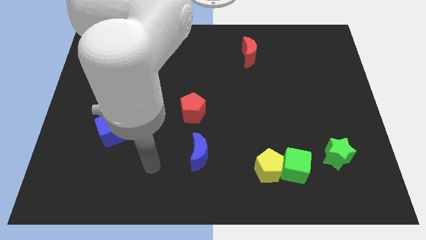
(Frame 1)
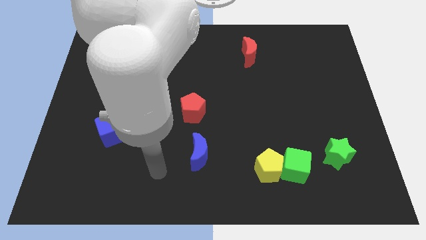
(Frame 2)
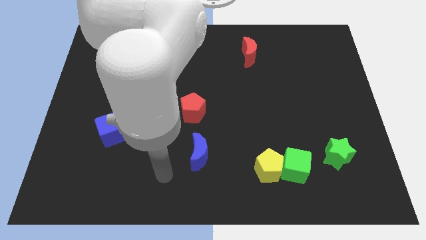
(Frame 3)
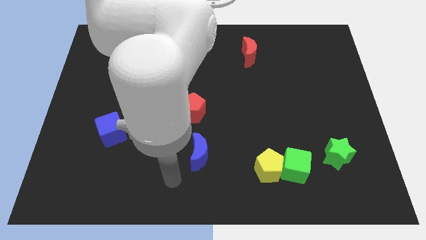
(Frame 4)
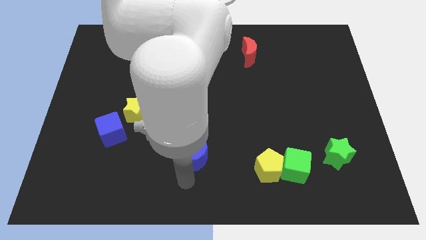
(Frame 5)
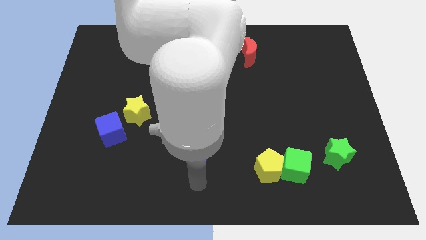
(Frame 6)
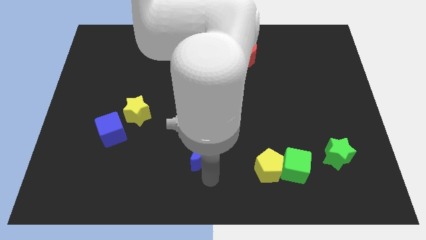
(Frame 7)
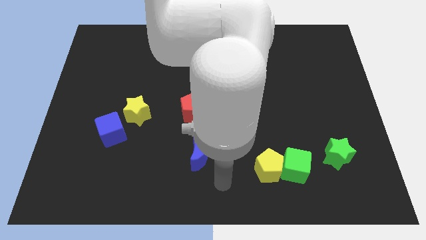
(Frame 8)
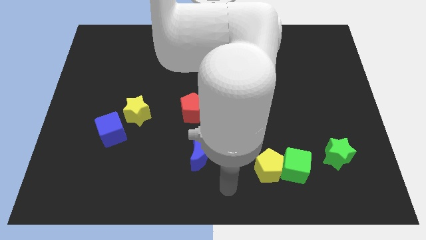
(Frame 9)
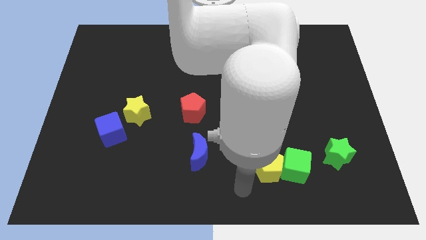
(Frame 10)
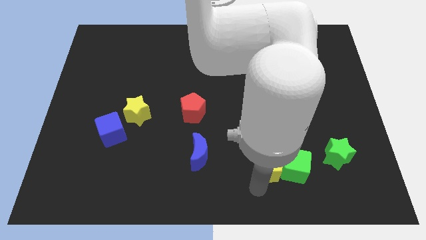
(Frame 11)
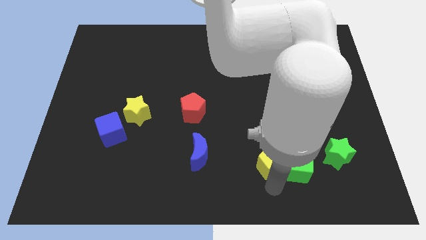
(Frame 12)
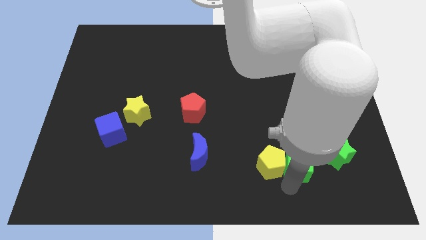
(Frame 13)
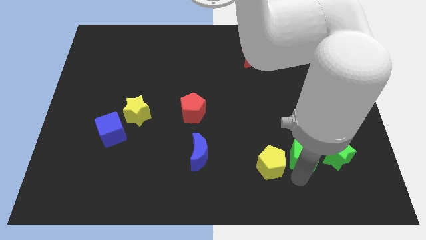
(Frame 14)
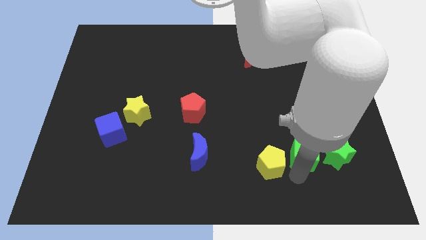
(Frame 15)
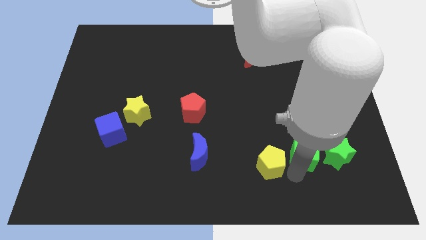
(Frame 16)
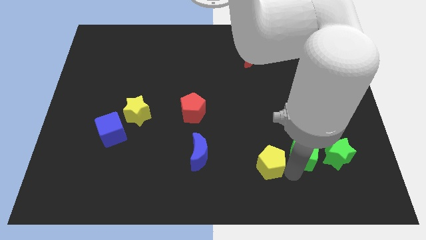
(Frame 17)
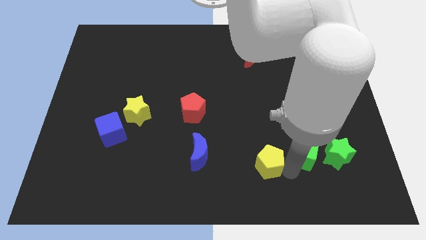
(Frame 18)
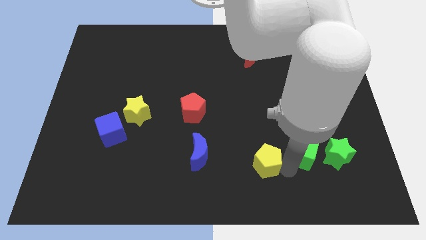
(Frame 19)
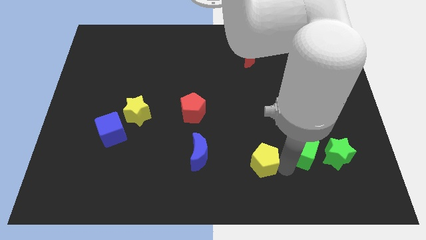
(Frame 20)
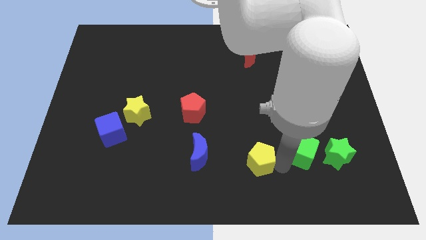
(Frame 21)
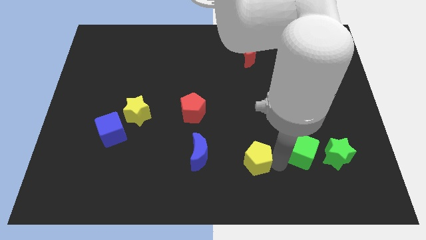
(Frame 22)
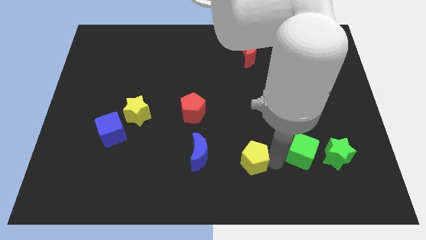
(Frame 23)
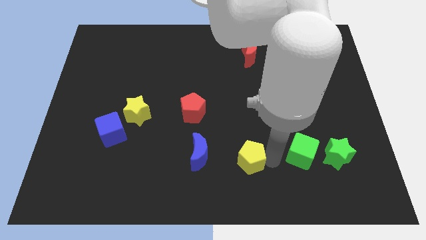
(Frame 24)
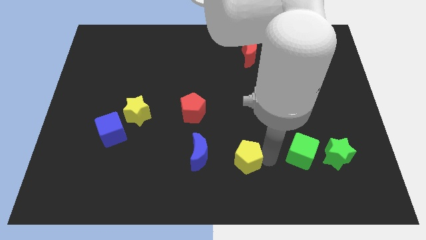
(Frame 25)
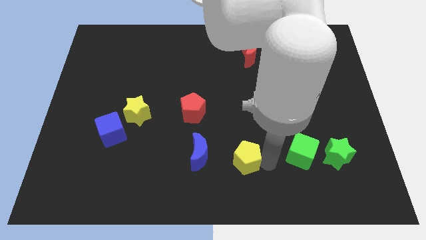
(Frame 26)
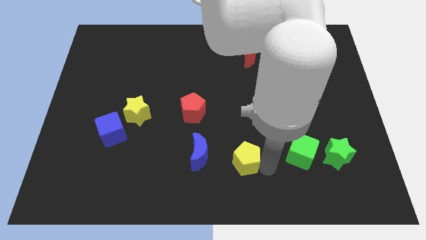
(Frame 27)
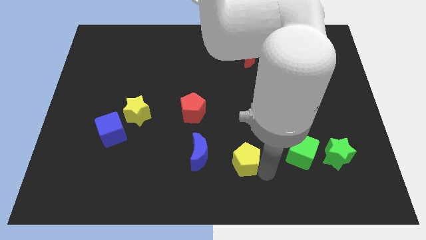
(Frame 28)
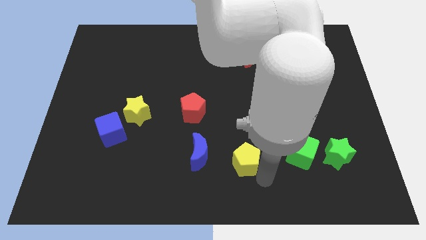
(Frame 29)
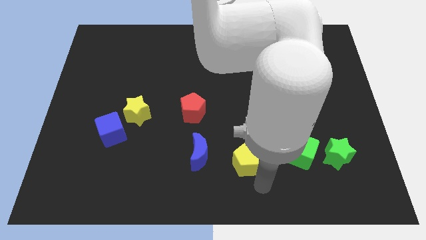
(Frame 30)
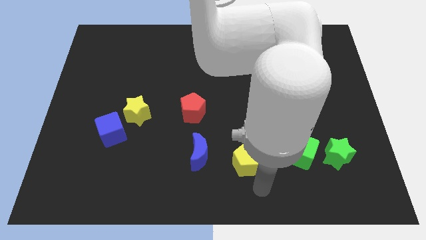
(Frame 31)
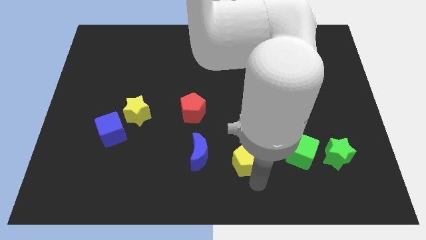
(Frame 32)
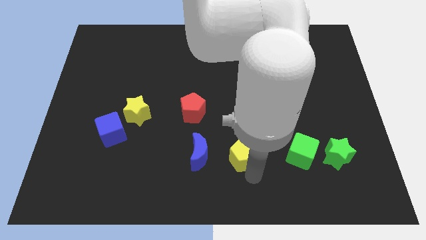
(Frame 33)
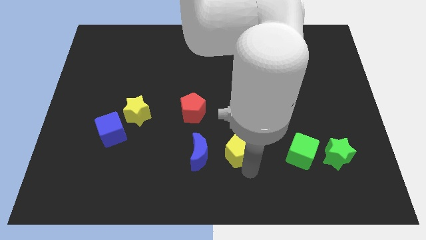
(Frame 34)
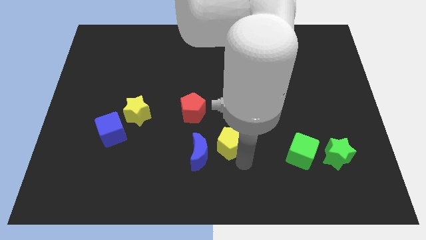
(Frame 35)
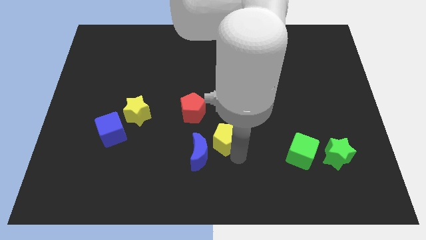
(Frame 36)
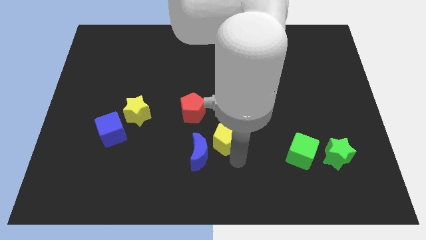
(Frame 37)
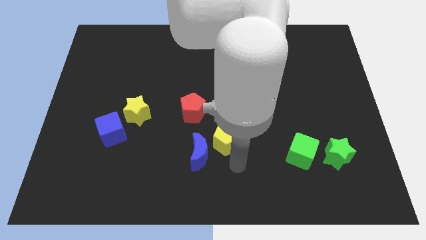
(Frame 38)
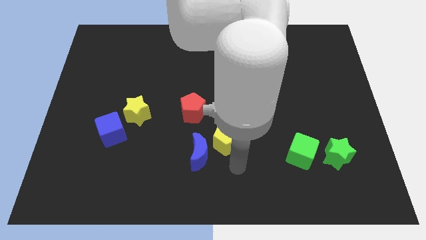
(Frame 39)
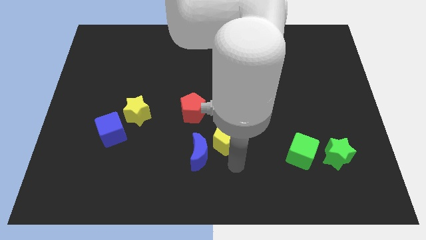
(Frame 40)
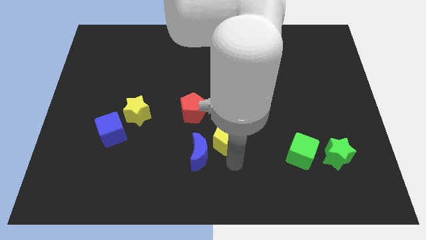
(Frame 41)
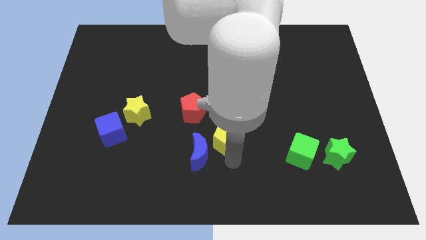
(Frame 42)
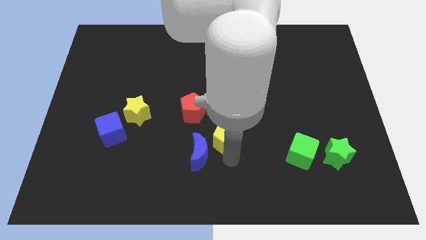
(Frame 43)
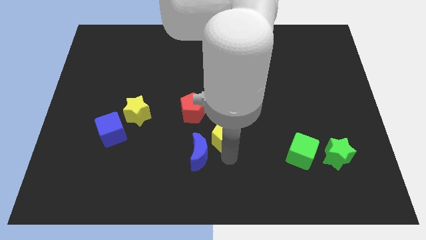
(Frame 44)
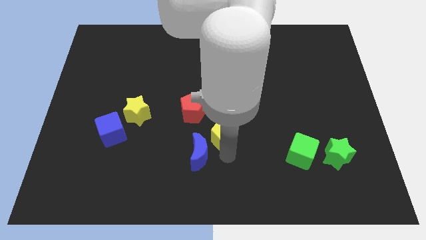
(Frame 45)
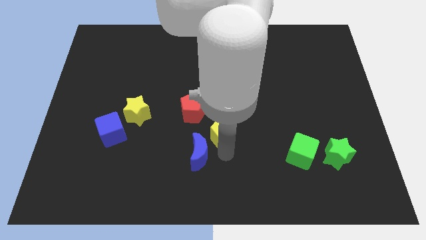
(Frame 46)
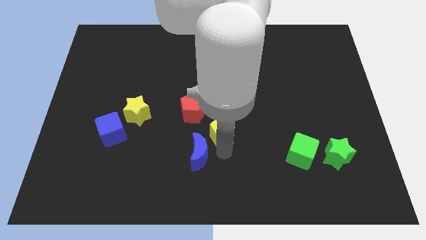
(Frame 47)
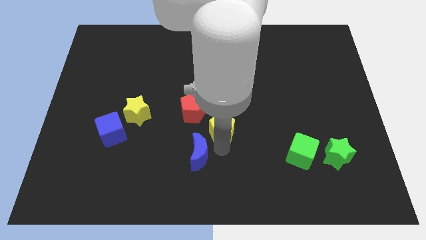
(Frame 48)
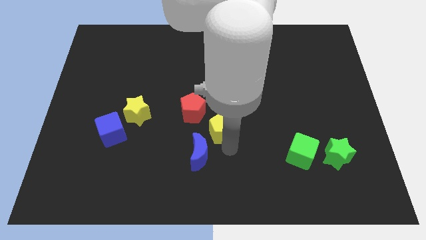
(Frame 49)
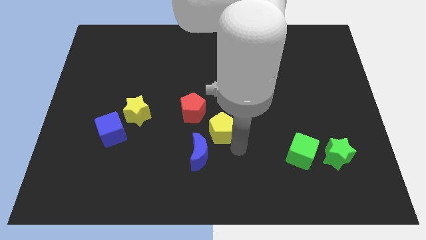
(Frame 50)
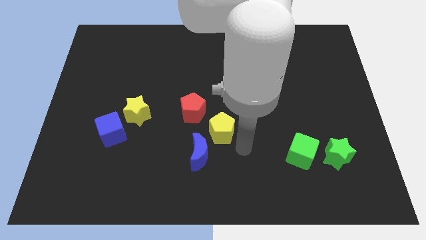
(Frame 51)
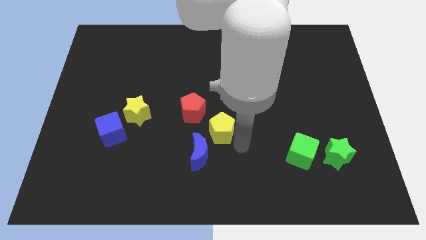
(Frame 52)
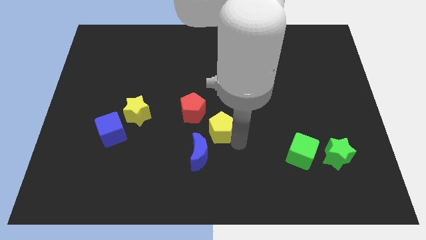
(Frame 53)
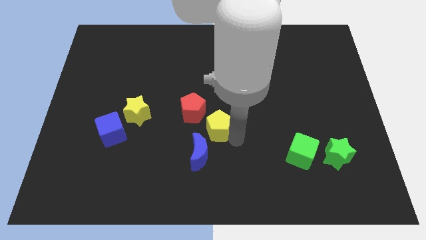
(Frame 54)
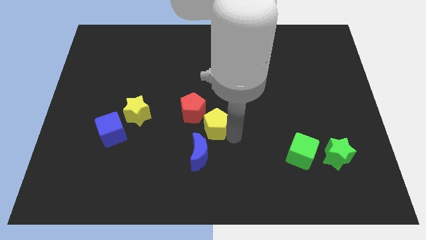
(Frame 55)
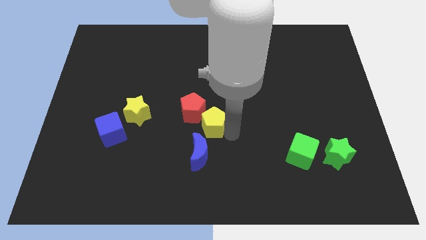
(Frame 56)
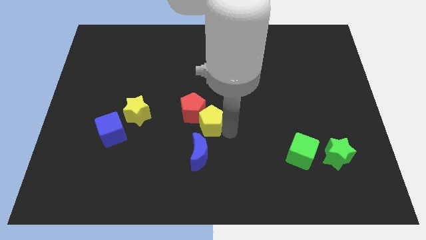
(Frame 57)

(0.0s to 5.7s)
move the yellow pentagon towards the red pentagon

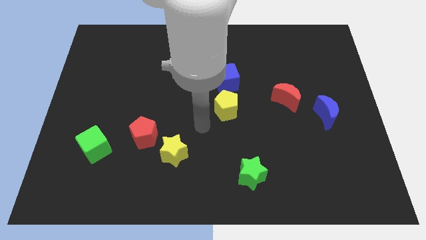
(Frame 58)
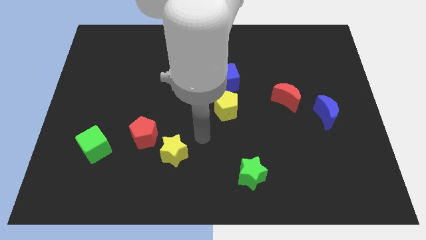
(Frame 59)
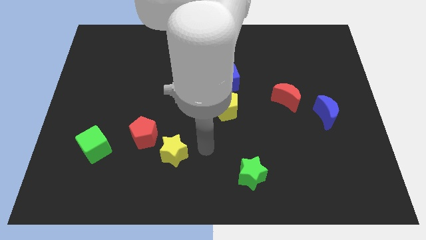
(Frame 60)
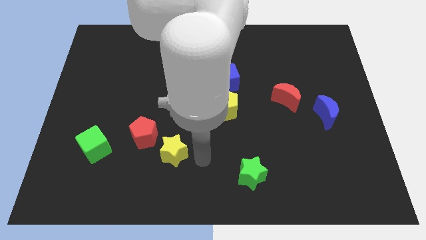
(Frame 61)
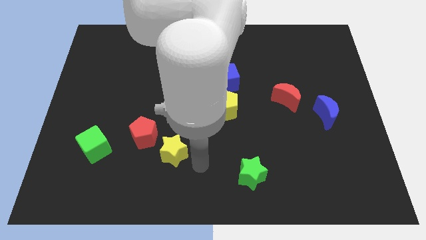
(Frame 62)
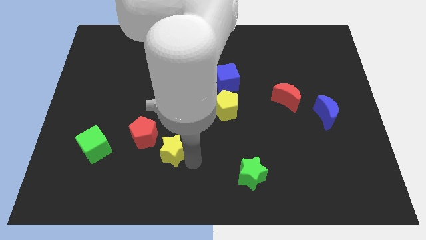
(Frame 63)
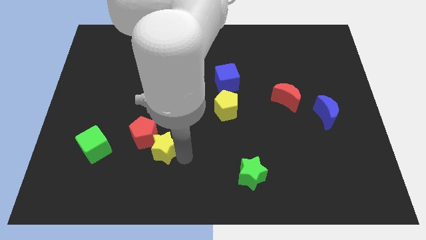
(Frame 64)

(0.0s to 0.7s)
push the yellow star to the red pentagon
